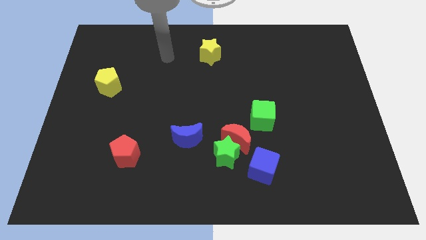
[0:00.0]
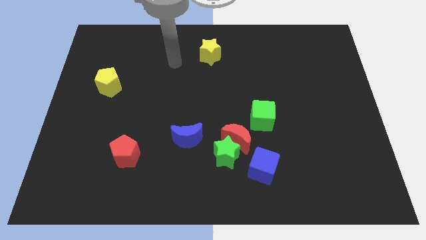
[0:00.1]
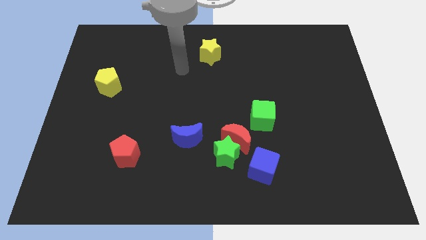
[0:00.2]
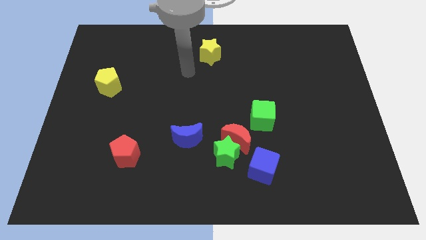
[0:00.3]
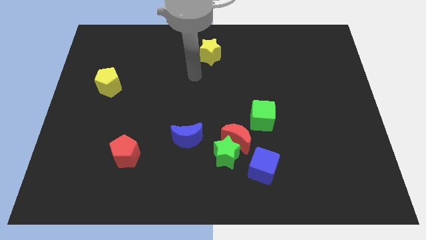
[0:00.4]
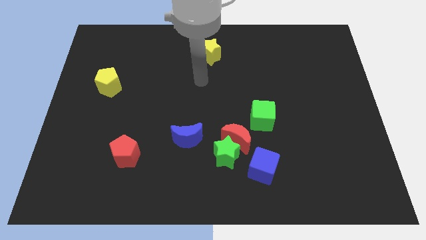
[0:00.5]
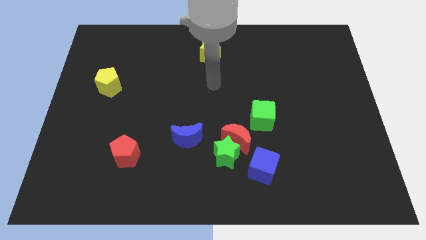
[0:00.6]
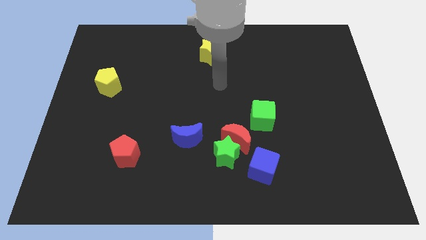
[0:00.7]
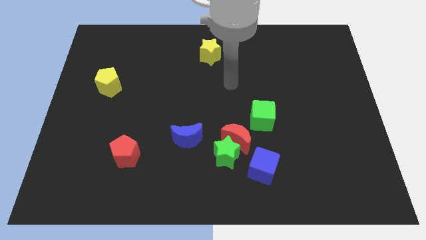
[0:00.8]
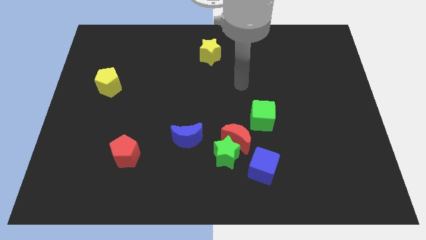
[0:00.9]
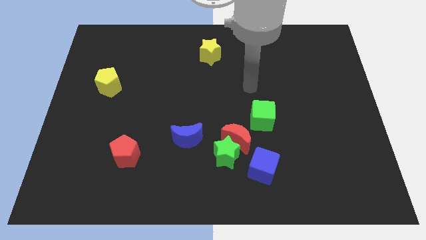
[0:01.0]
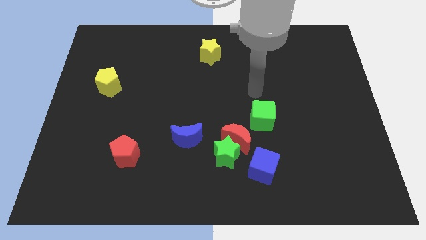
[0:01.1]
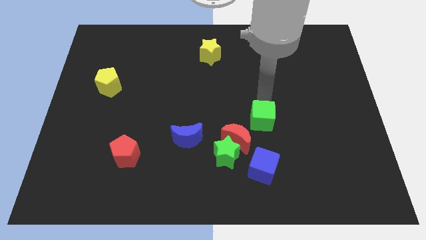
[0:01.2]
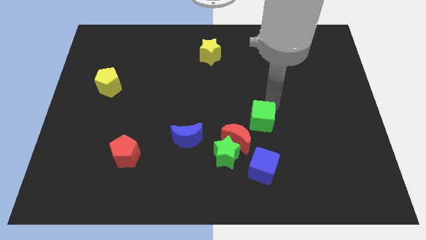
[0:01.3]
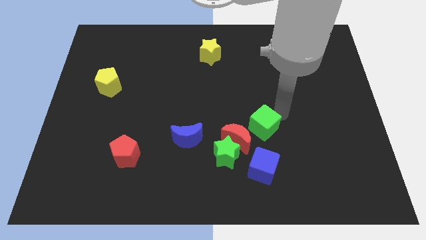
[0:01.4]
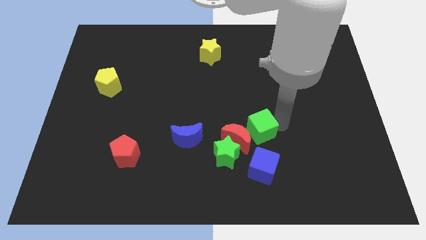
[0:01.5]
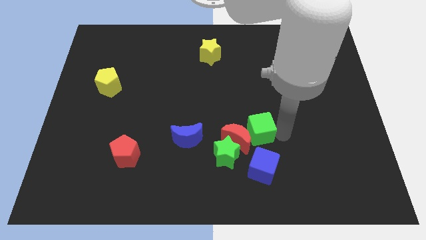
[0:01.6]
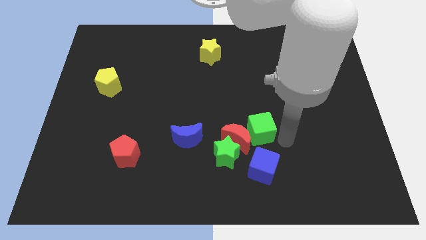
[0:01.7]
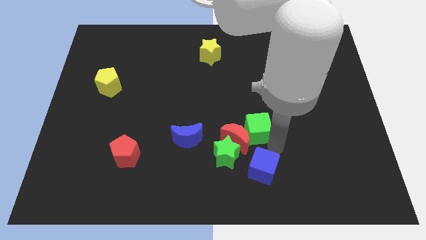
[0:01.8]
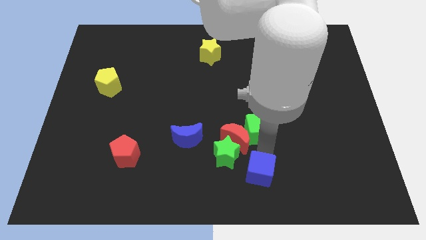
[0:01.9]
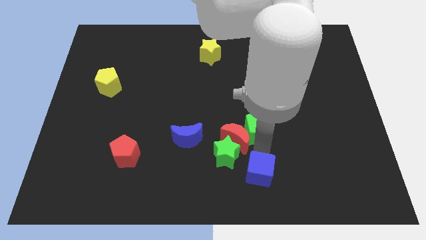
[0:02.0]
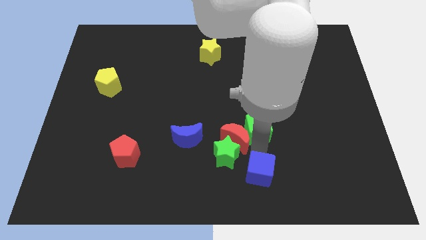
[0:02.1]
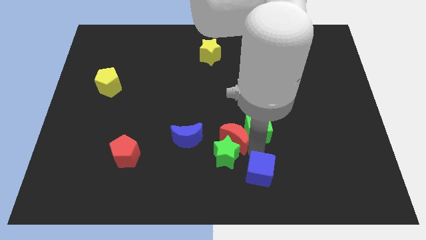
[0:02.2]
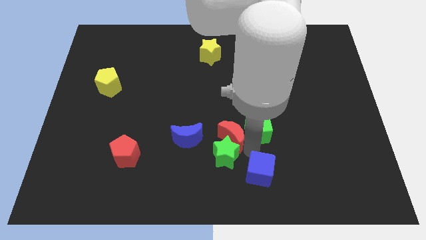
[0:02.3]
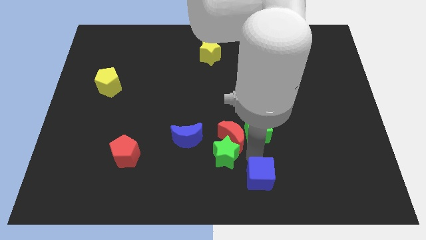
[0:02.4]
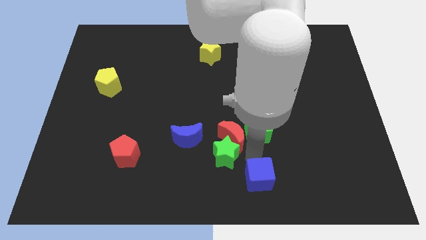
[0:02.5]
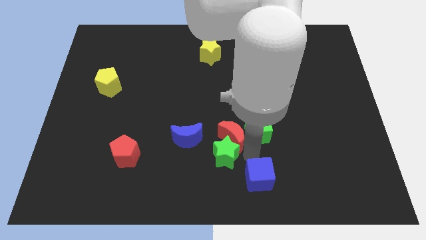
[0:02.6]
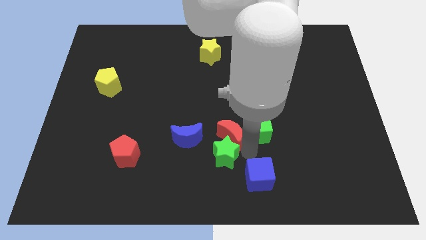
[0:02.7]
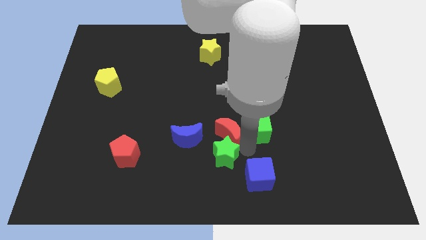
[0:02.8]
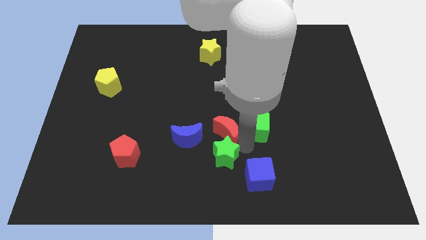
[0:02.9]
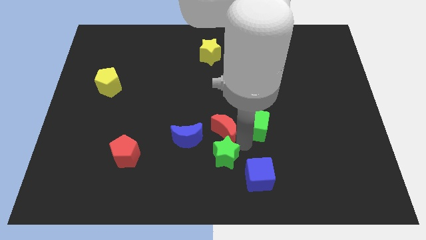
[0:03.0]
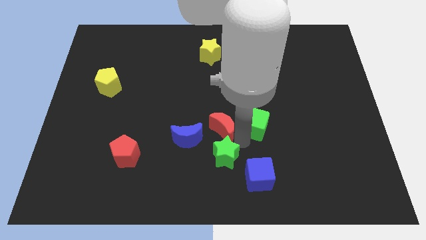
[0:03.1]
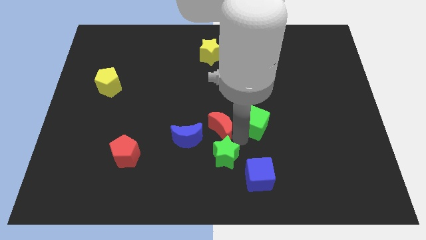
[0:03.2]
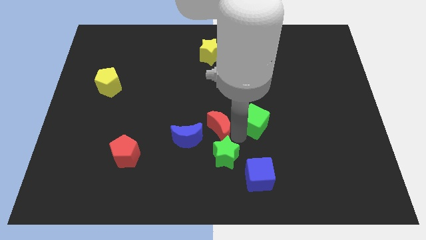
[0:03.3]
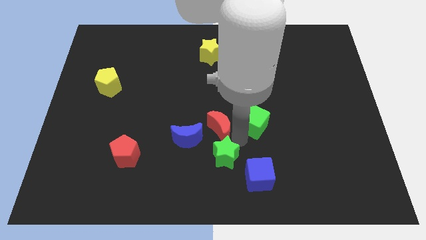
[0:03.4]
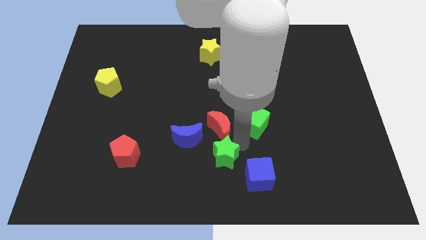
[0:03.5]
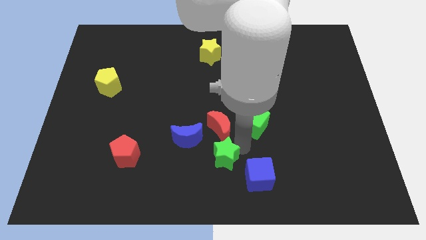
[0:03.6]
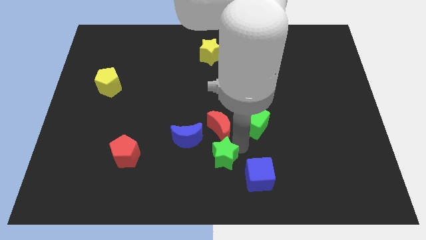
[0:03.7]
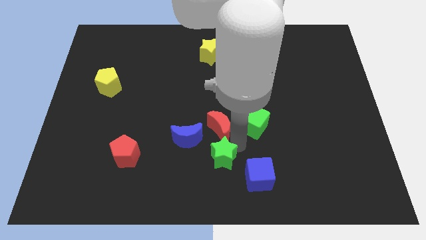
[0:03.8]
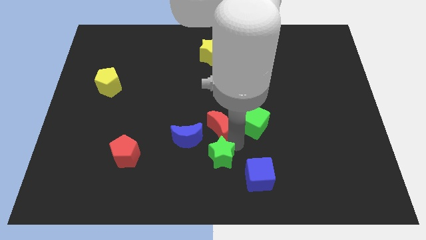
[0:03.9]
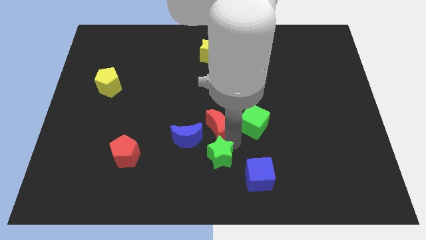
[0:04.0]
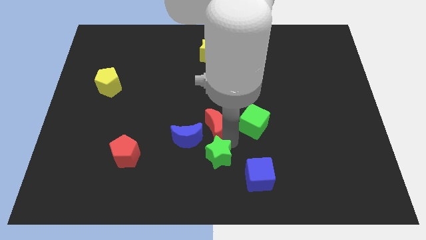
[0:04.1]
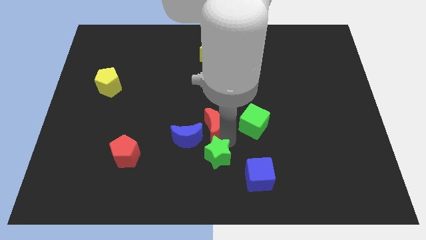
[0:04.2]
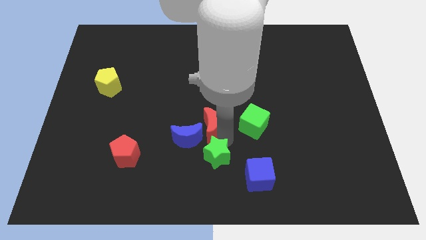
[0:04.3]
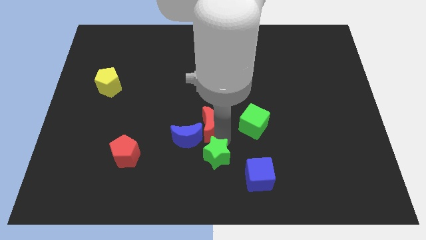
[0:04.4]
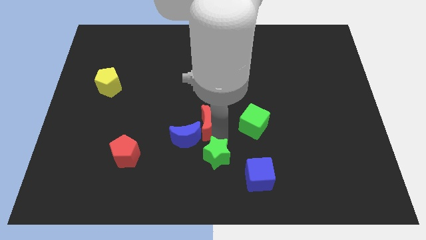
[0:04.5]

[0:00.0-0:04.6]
move the red moon away from the group of blocks

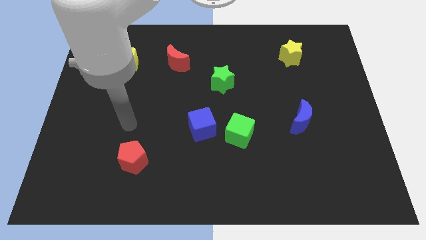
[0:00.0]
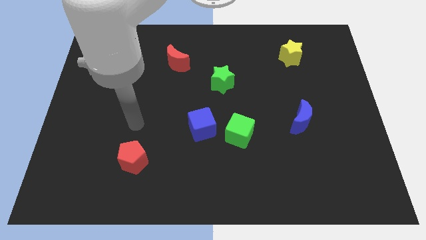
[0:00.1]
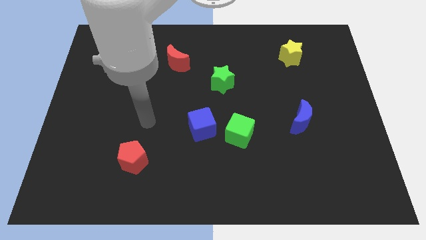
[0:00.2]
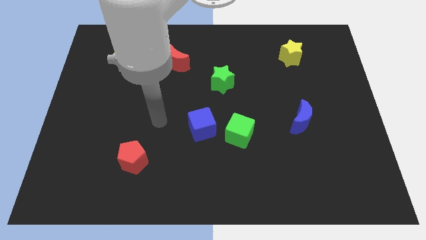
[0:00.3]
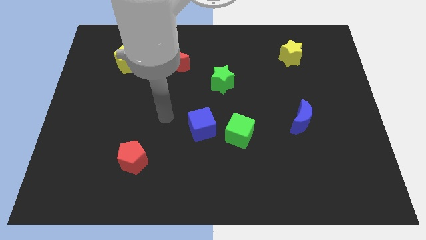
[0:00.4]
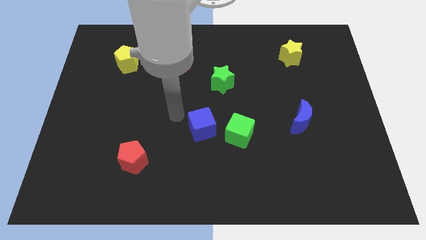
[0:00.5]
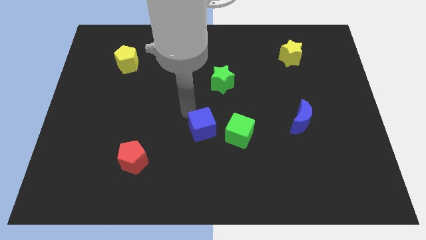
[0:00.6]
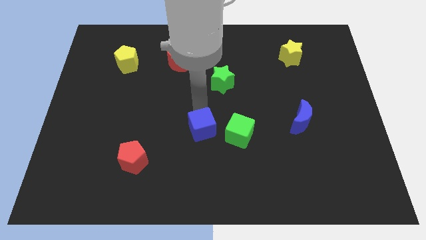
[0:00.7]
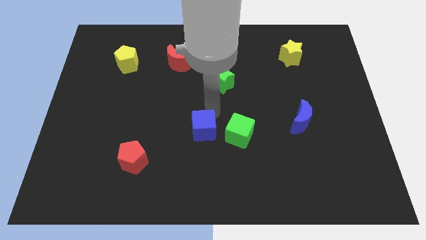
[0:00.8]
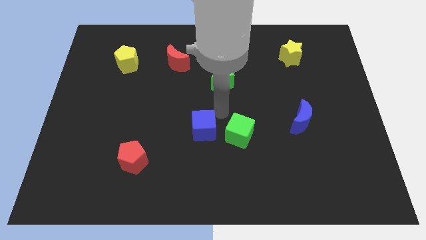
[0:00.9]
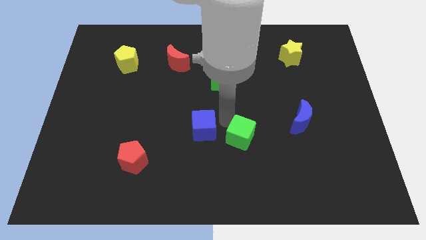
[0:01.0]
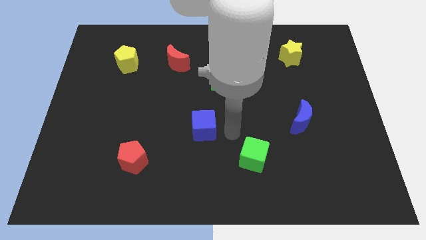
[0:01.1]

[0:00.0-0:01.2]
move the blue cube away from the green cube

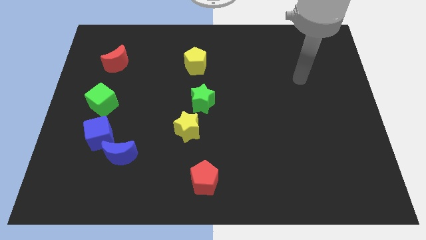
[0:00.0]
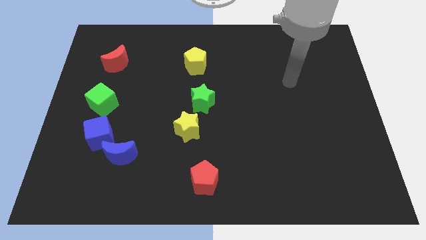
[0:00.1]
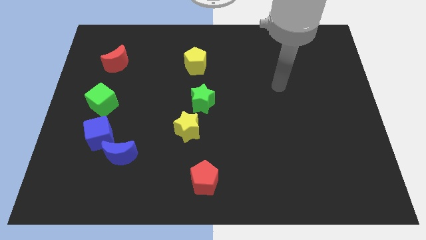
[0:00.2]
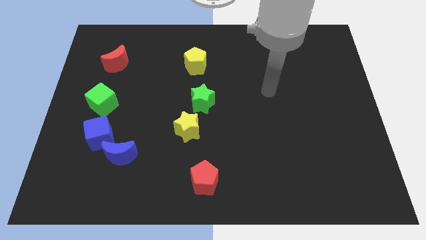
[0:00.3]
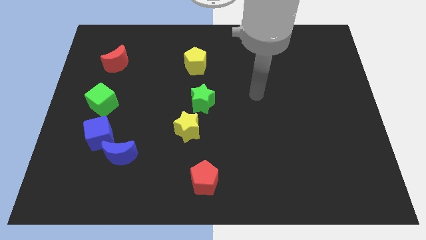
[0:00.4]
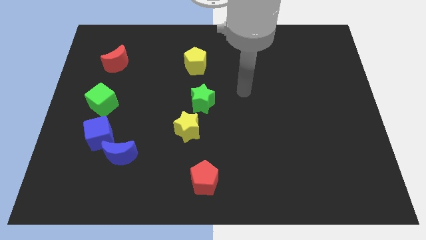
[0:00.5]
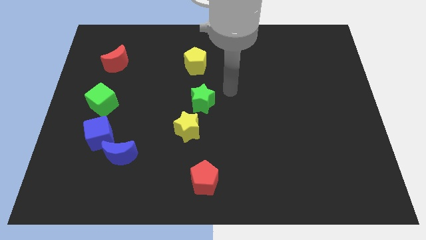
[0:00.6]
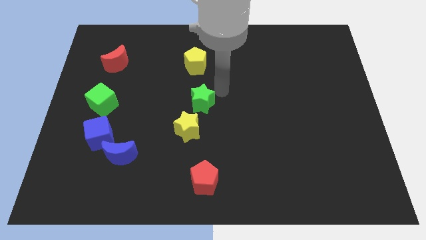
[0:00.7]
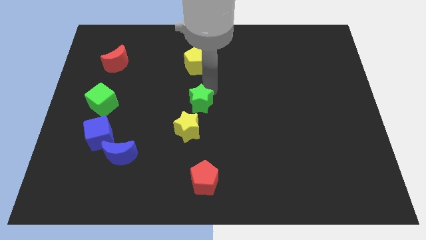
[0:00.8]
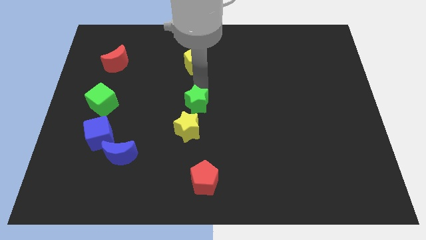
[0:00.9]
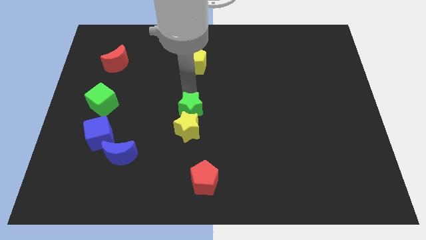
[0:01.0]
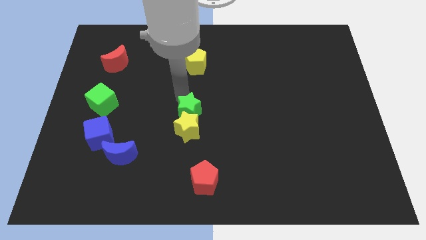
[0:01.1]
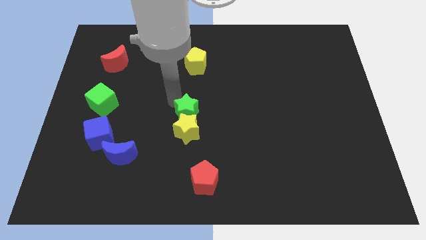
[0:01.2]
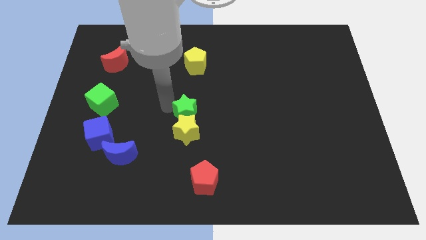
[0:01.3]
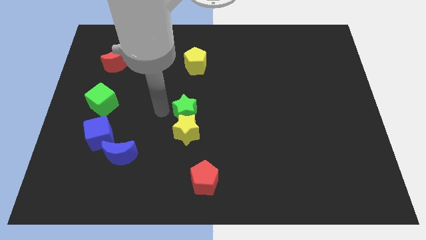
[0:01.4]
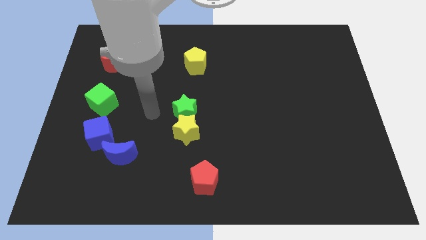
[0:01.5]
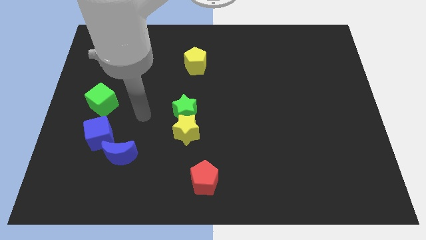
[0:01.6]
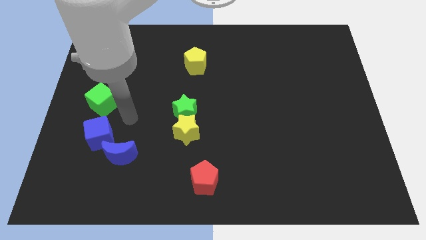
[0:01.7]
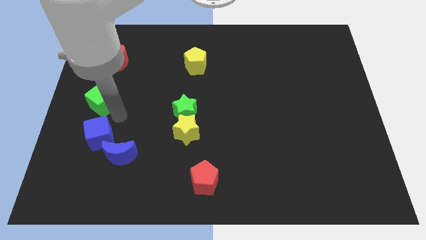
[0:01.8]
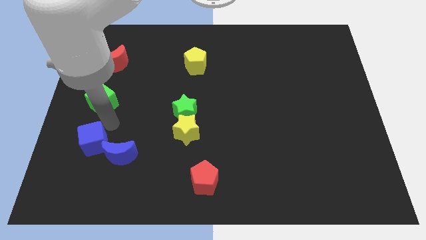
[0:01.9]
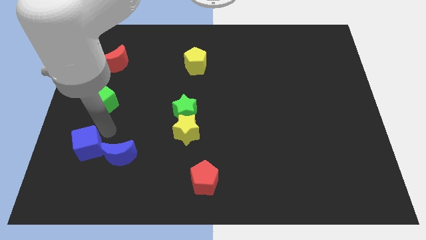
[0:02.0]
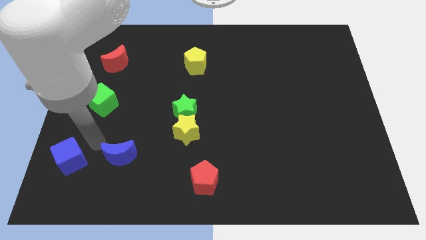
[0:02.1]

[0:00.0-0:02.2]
pull the blue moon apart from the blue cube

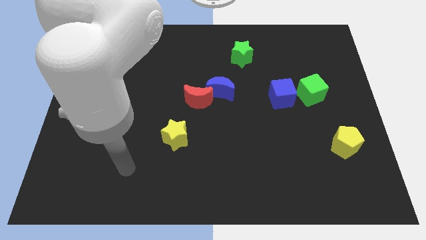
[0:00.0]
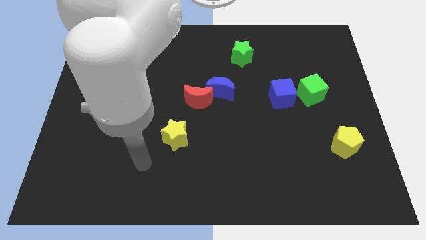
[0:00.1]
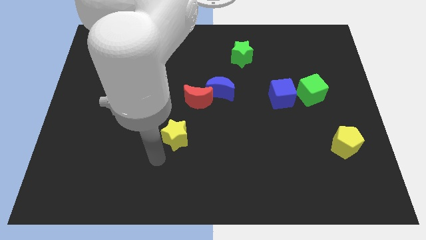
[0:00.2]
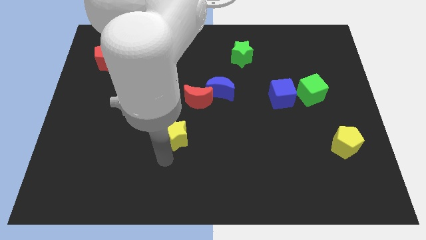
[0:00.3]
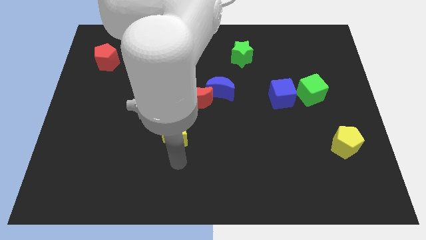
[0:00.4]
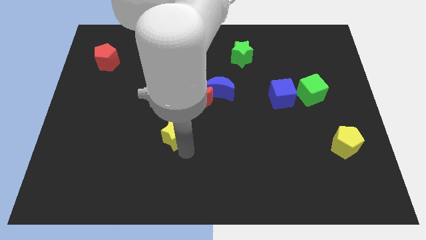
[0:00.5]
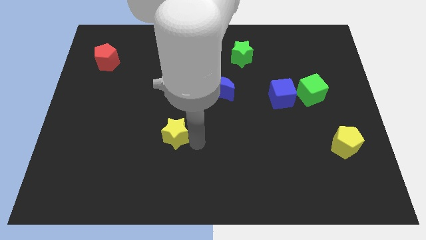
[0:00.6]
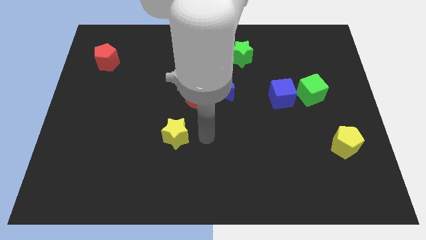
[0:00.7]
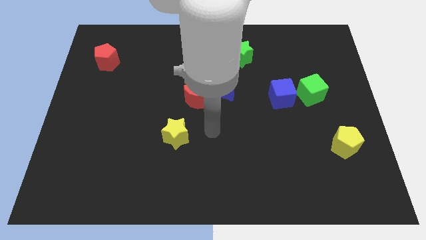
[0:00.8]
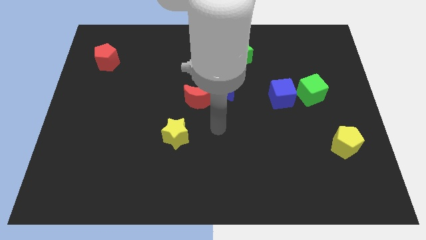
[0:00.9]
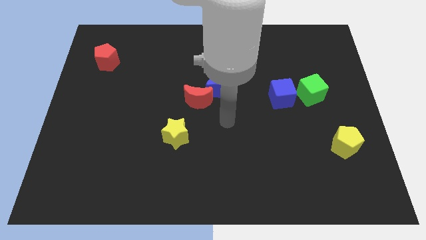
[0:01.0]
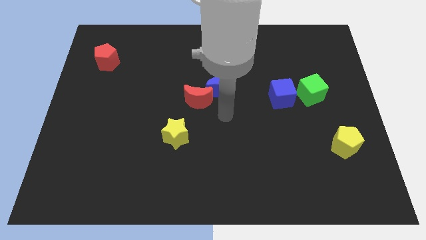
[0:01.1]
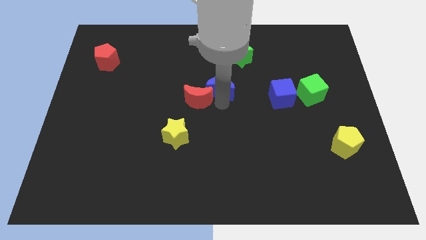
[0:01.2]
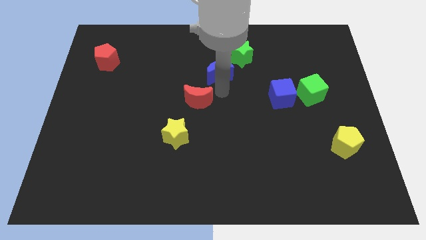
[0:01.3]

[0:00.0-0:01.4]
separate the red moon from the blue moon
